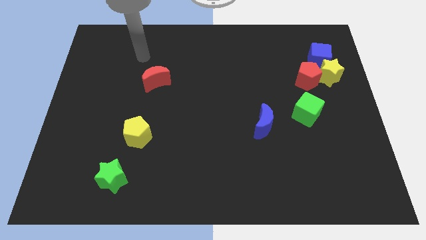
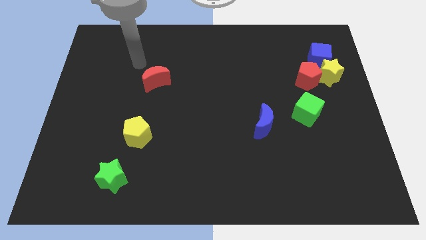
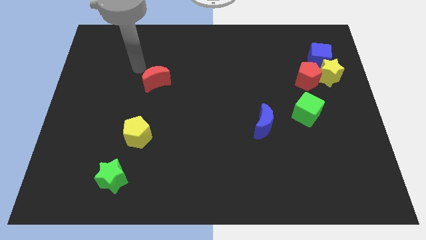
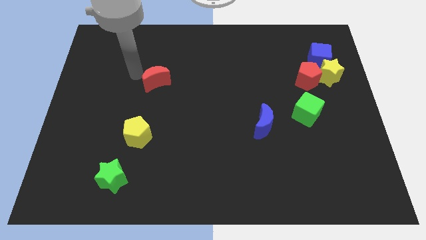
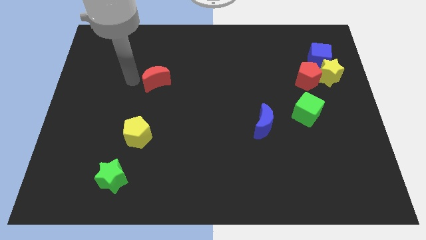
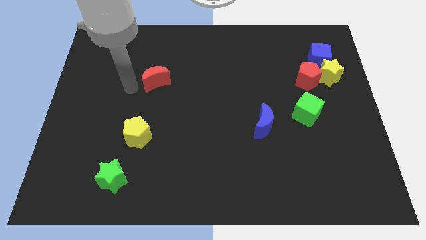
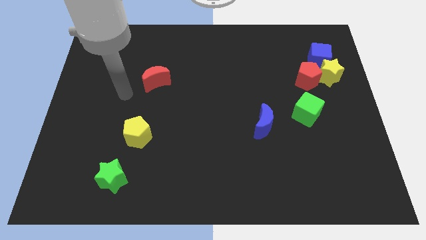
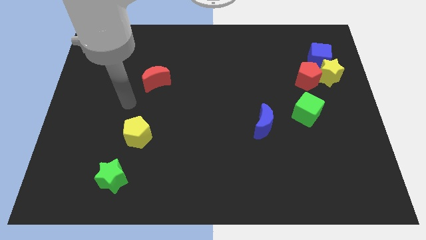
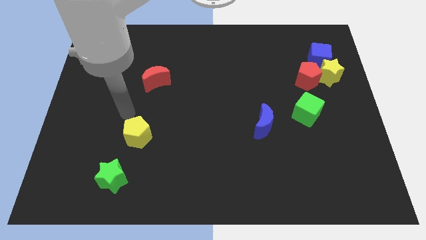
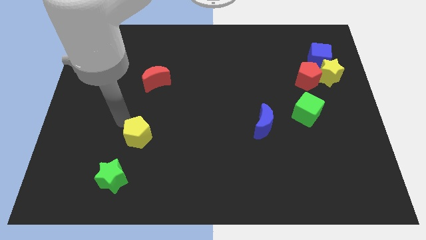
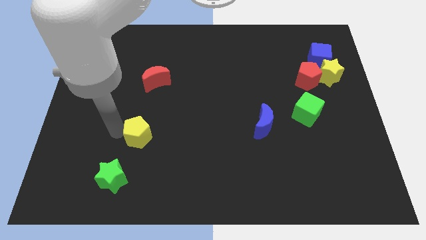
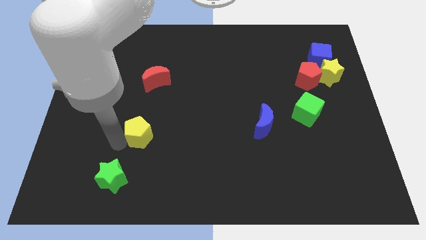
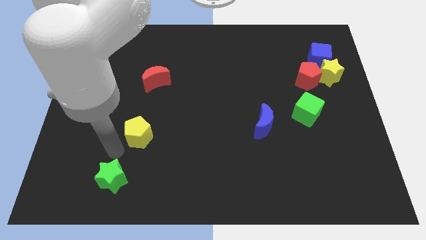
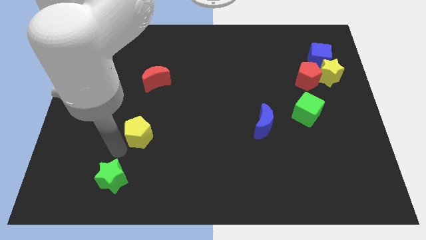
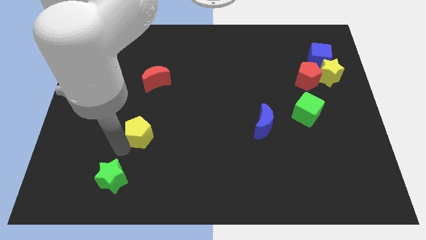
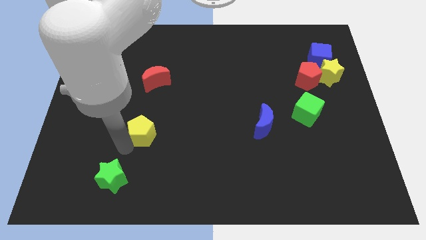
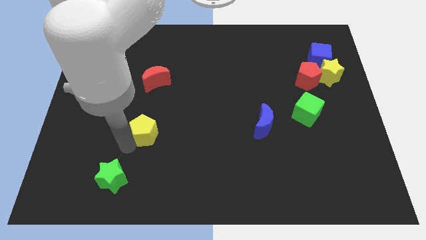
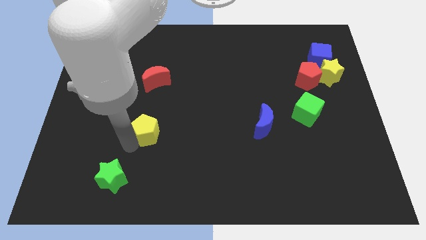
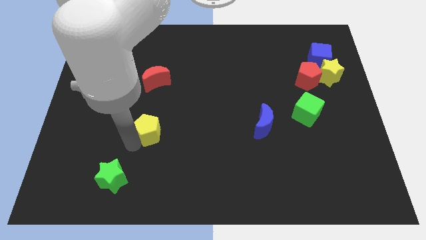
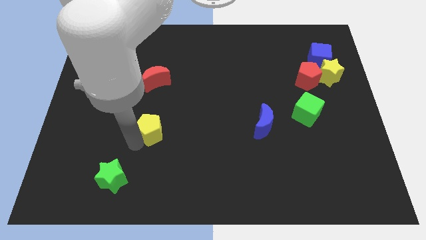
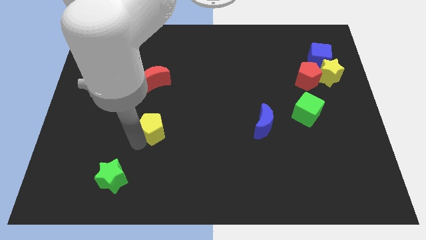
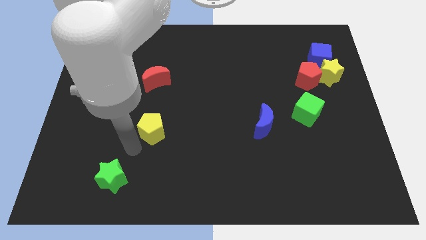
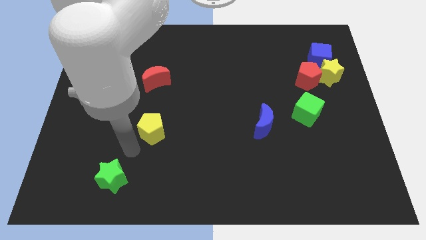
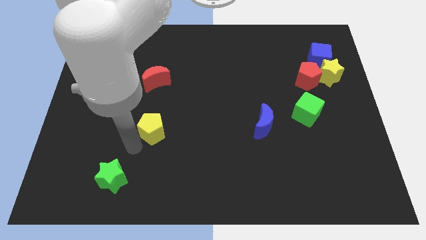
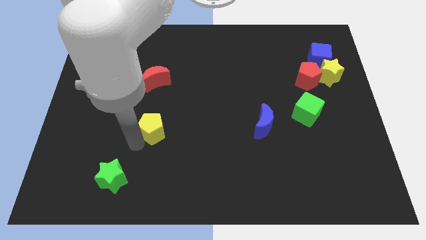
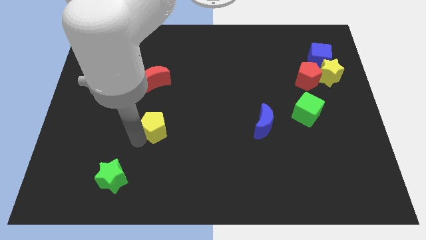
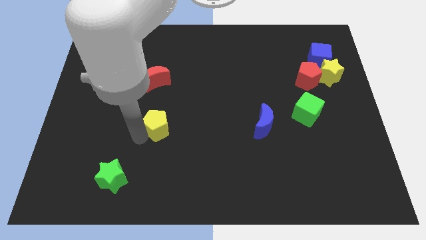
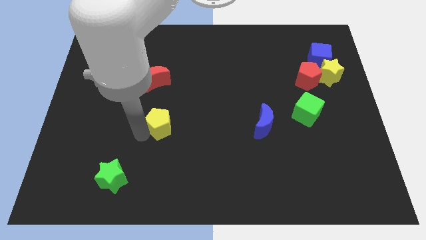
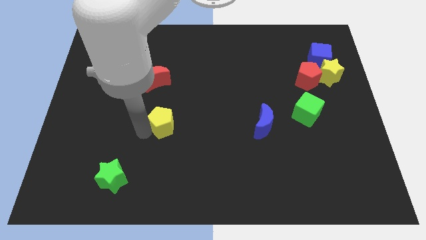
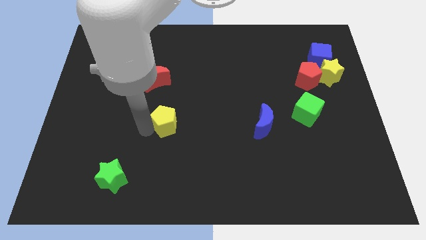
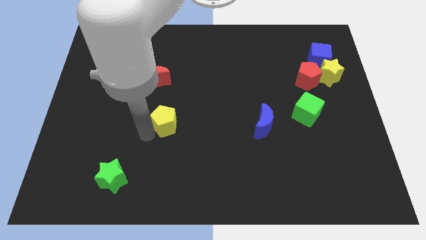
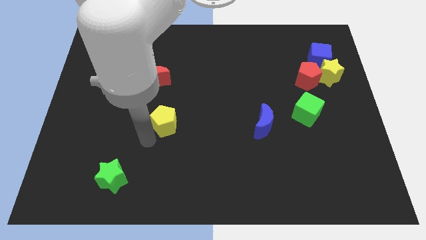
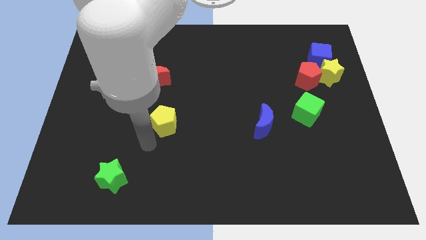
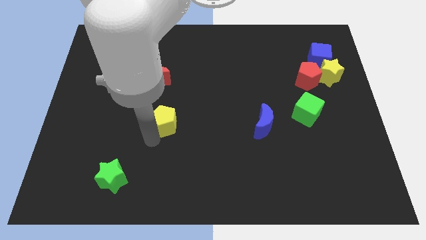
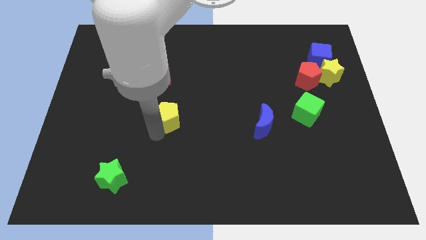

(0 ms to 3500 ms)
slide the yellow pentagon slightly diagonally up and right

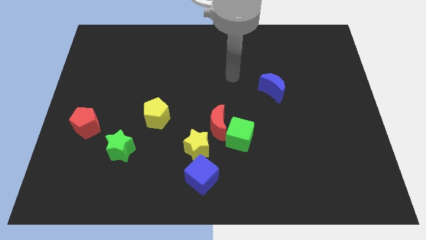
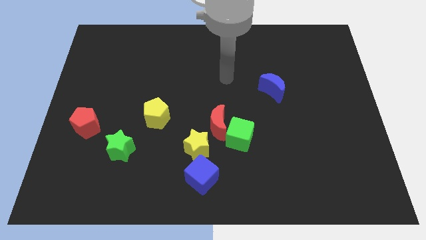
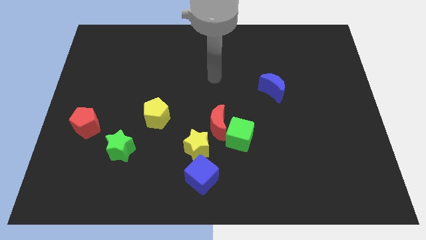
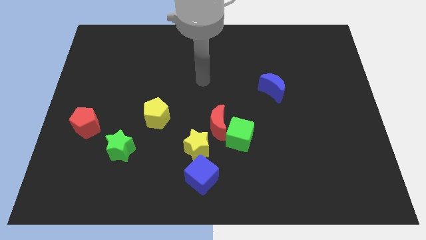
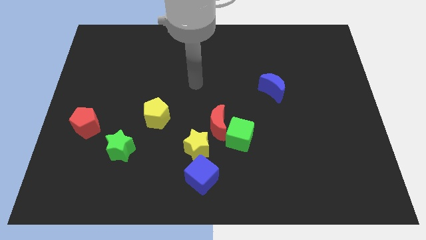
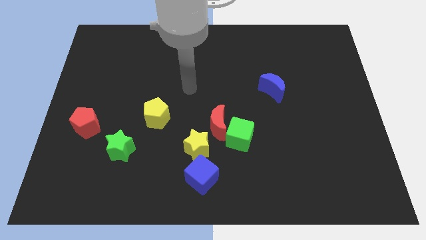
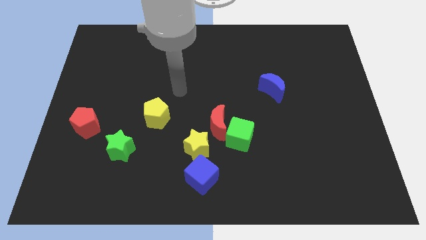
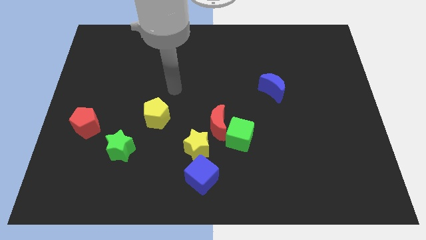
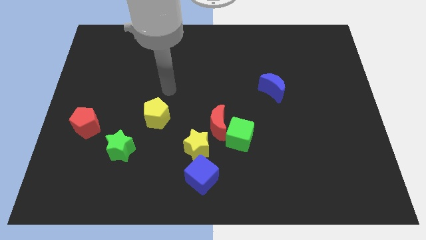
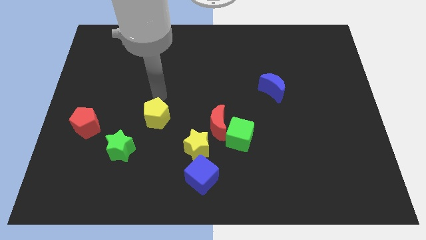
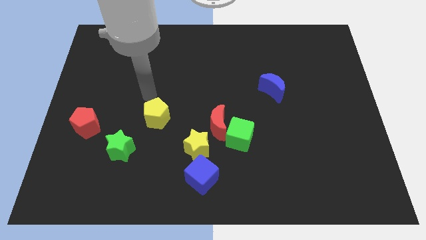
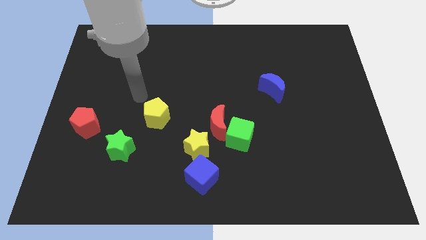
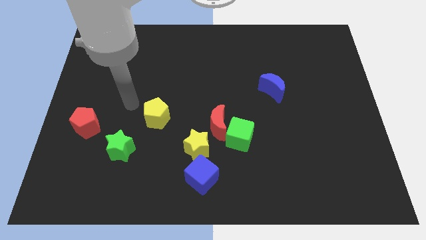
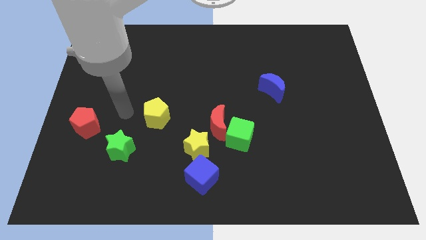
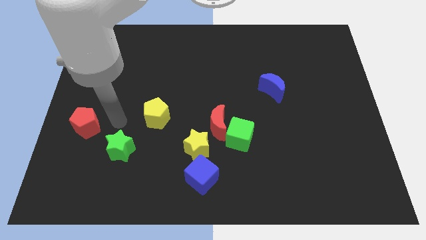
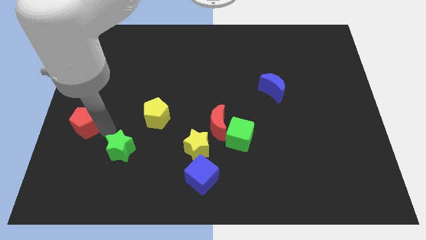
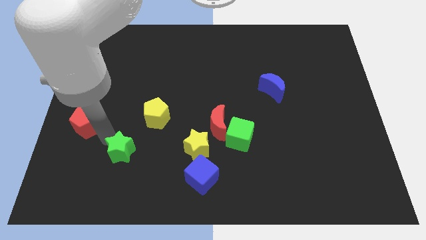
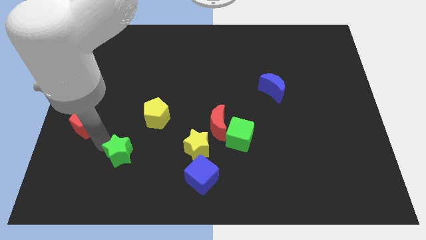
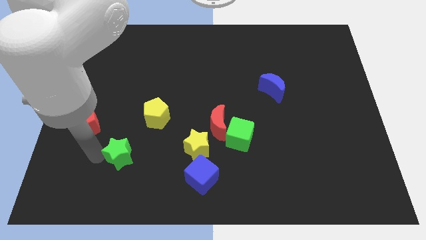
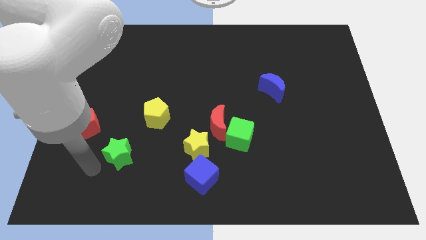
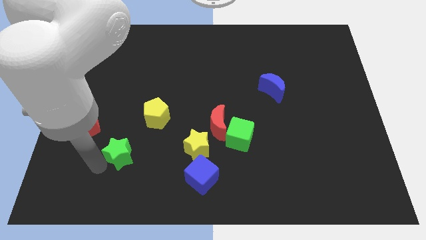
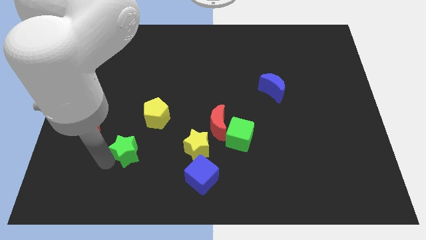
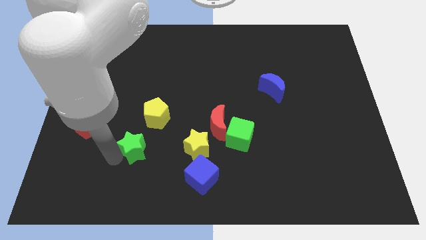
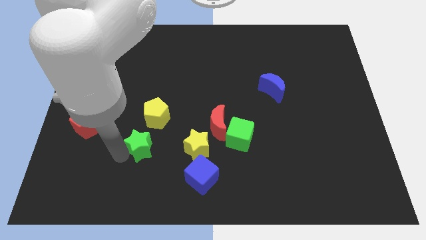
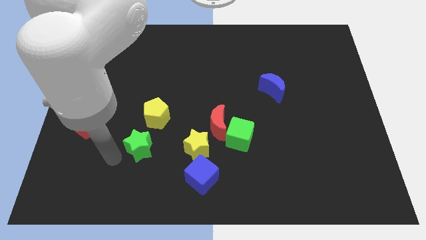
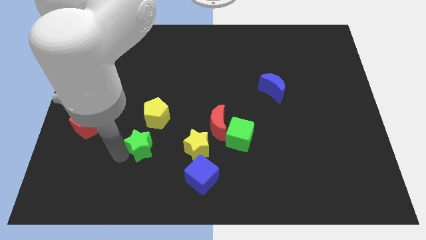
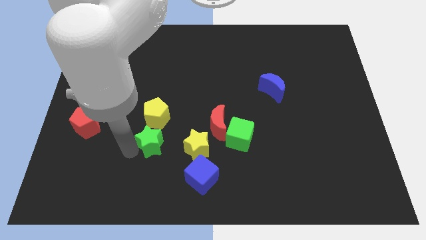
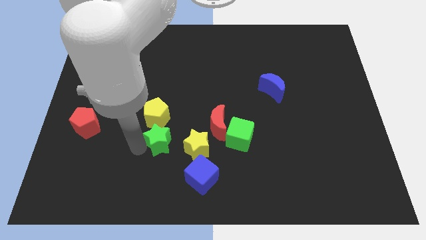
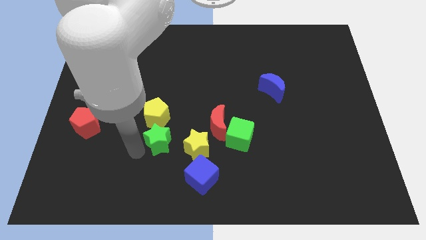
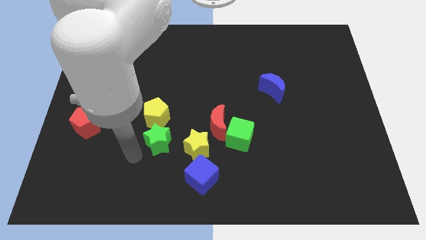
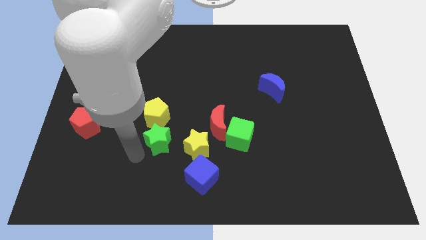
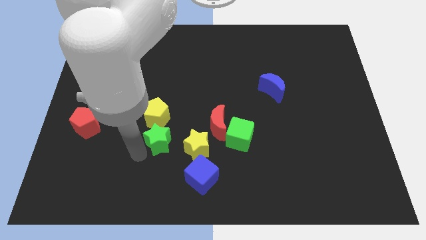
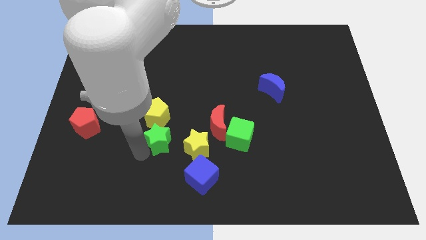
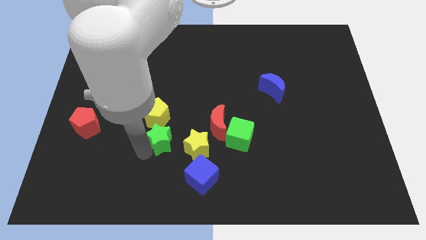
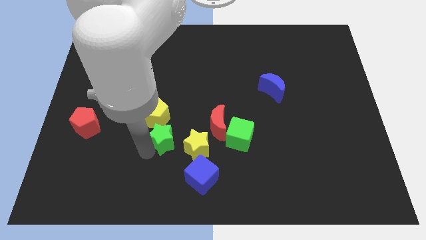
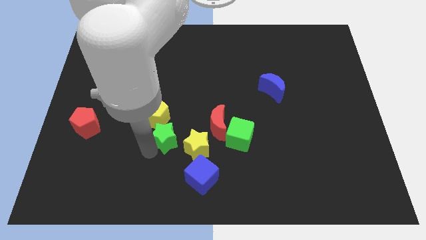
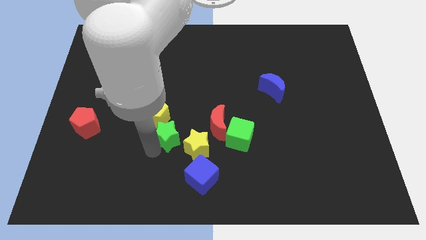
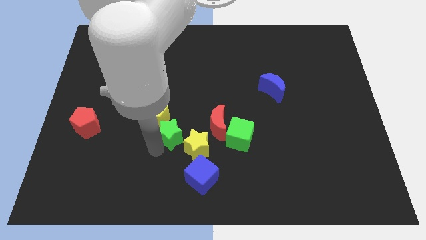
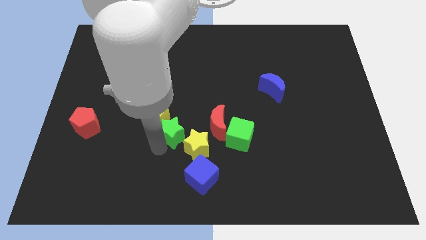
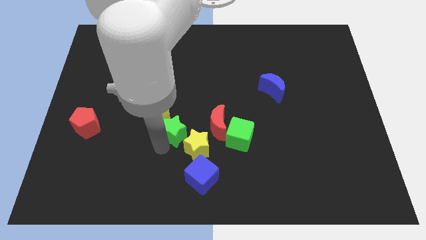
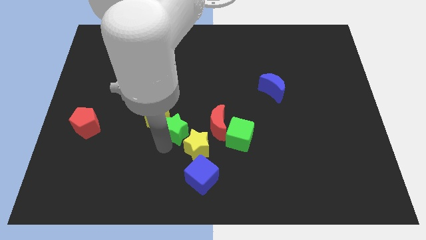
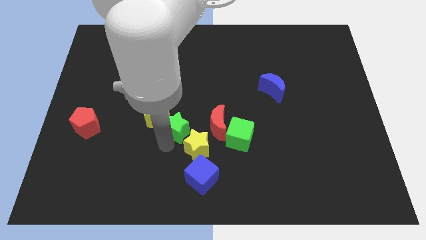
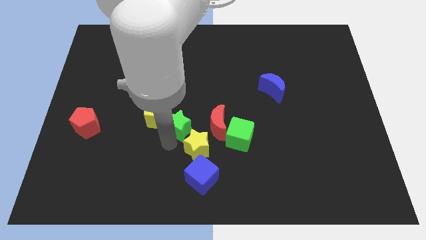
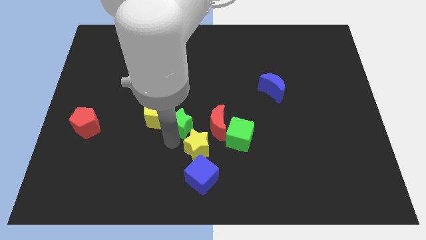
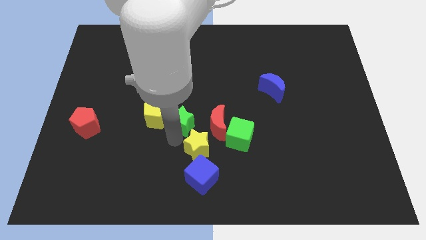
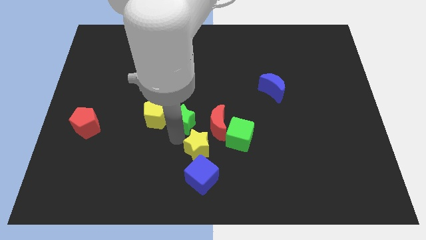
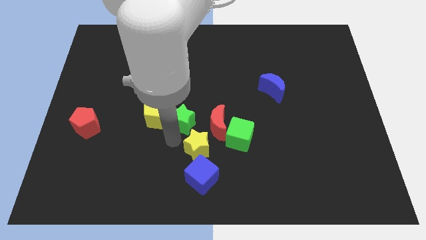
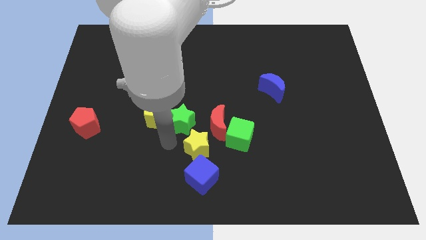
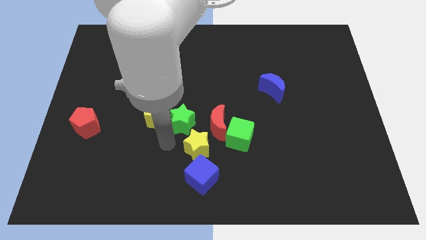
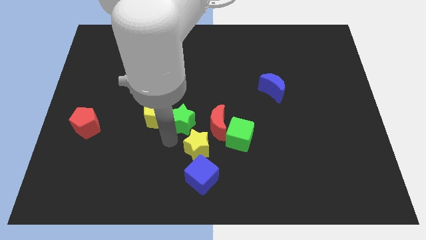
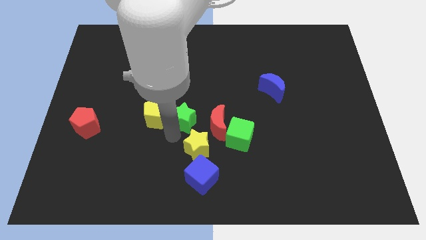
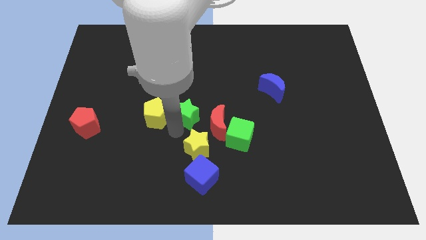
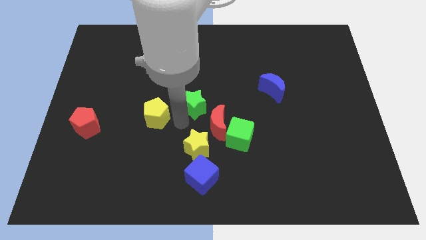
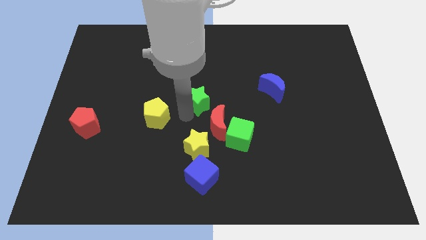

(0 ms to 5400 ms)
slide the green star diagonally up and right
